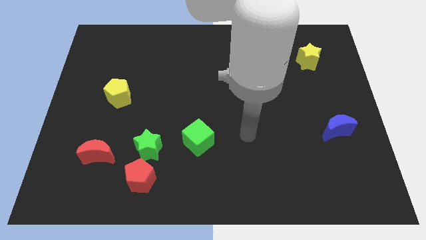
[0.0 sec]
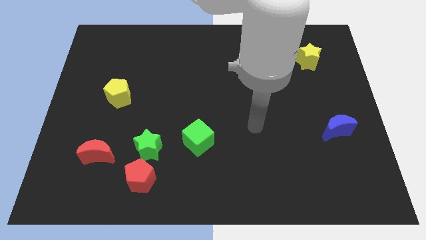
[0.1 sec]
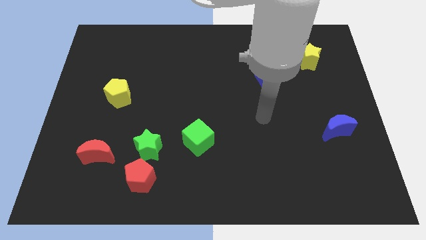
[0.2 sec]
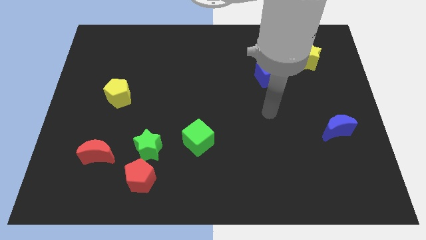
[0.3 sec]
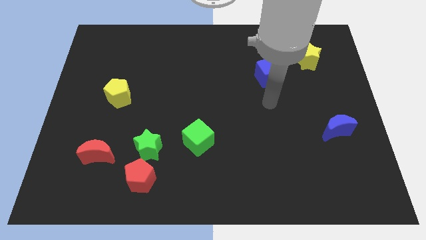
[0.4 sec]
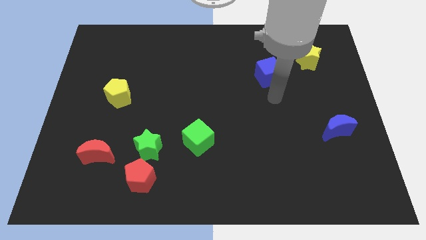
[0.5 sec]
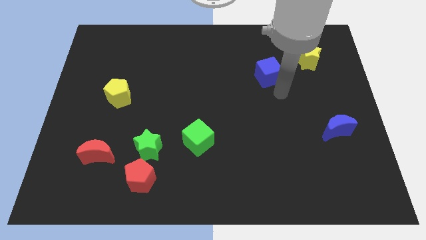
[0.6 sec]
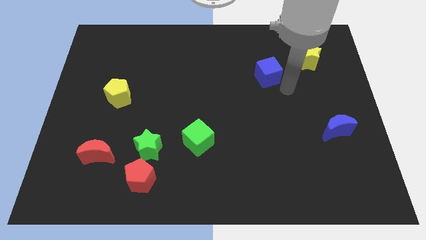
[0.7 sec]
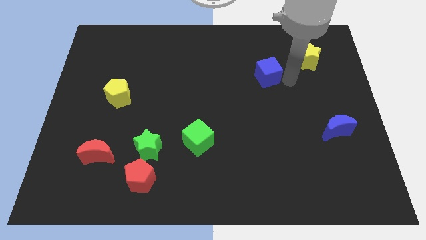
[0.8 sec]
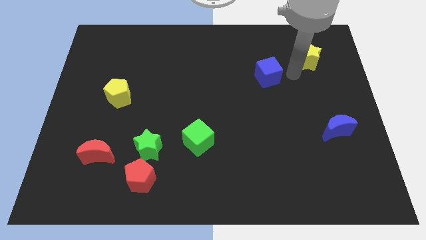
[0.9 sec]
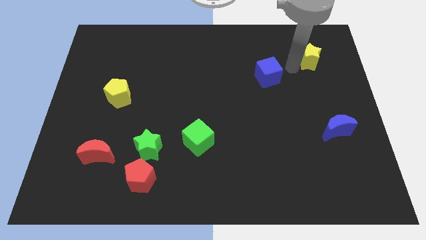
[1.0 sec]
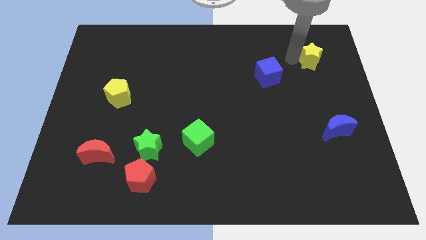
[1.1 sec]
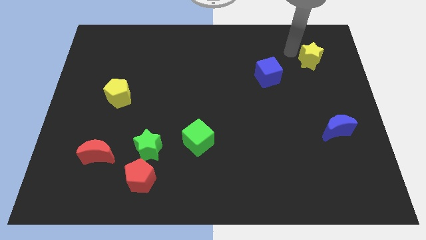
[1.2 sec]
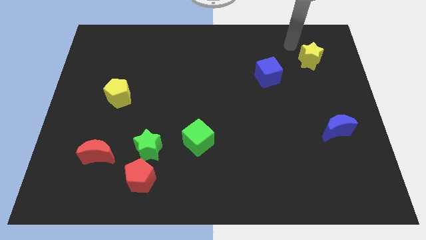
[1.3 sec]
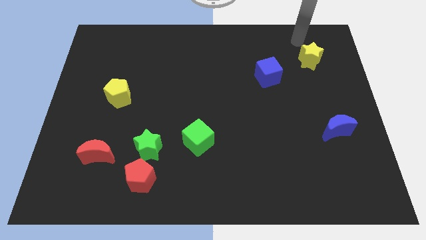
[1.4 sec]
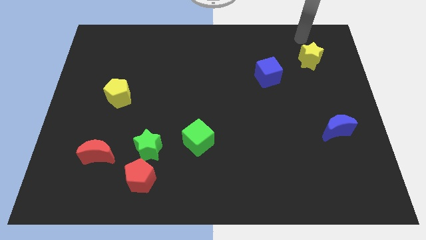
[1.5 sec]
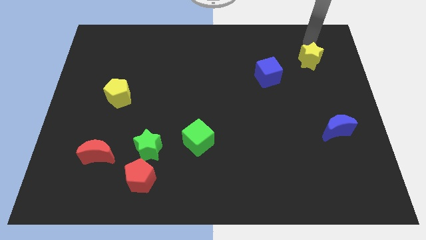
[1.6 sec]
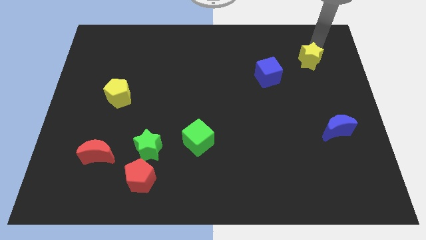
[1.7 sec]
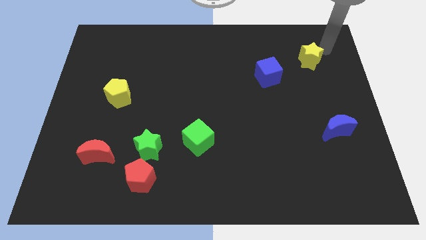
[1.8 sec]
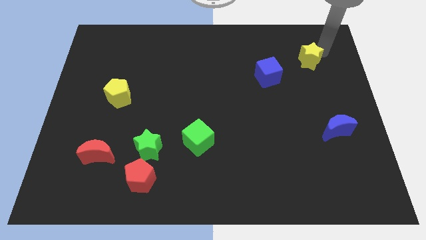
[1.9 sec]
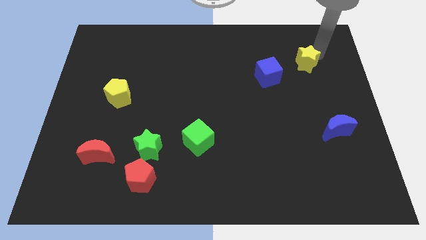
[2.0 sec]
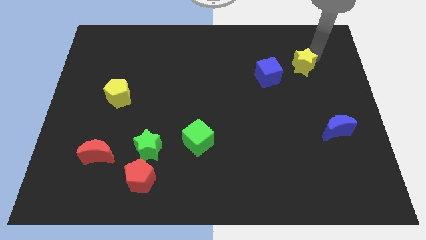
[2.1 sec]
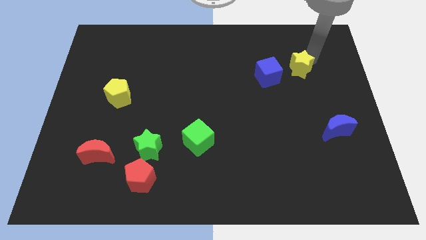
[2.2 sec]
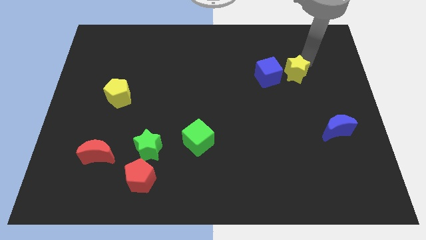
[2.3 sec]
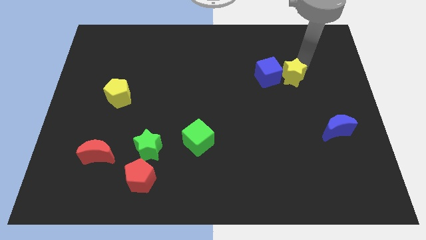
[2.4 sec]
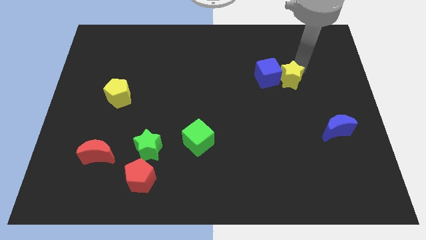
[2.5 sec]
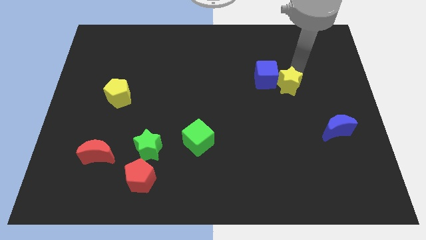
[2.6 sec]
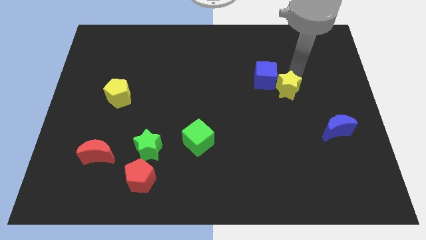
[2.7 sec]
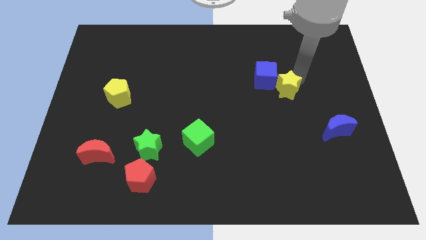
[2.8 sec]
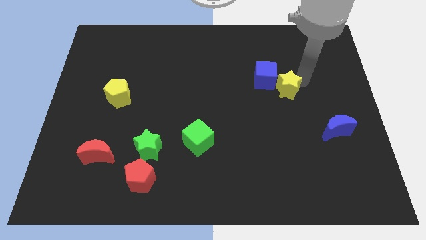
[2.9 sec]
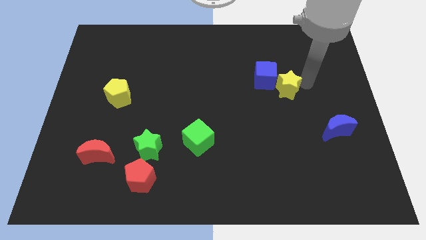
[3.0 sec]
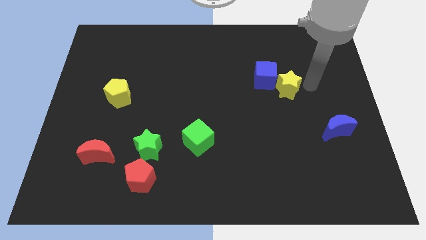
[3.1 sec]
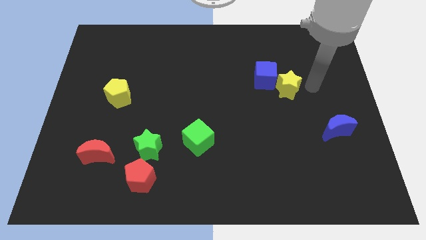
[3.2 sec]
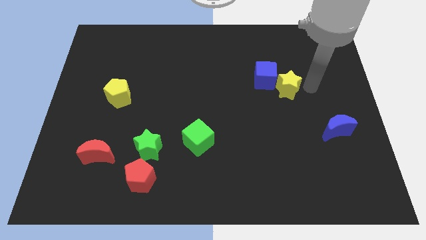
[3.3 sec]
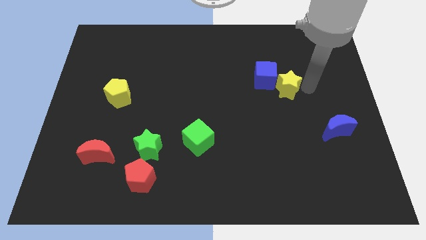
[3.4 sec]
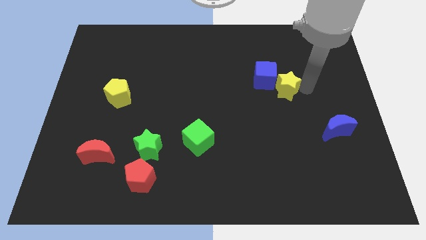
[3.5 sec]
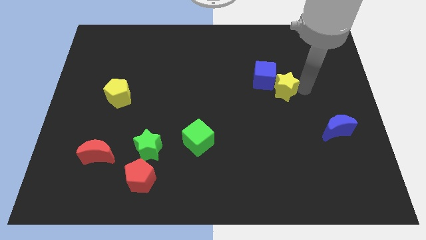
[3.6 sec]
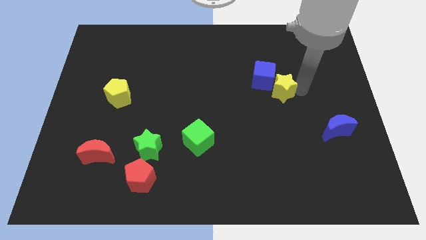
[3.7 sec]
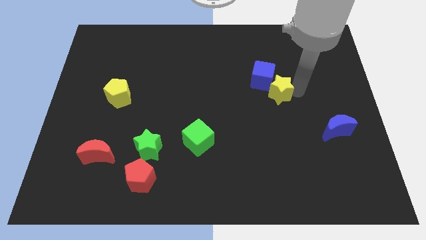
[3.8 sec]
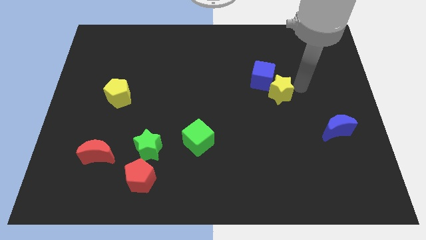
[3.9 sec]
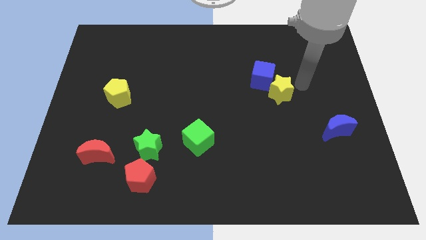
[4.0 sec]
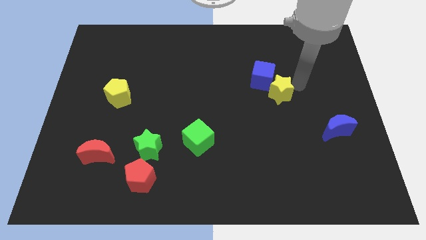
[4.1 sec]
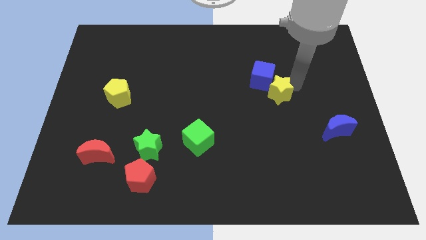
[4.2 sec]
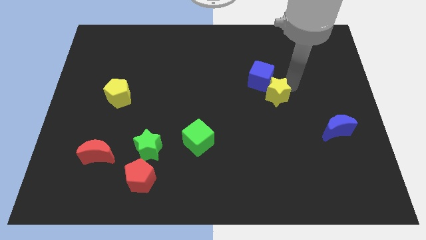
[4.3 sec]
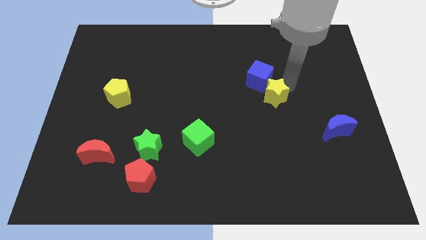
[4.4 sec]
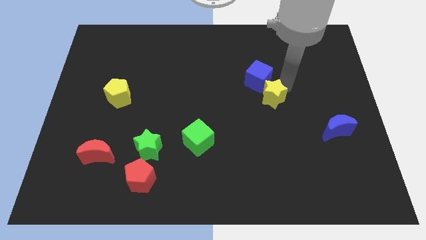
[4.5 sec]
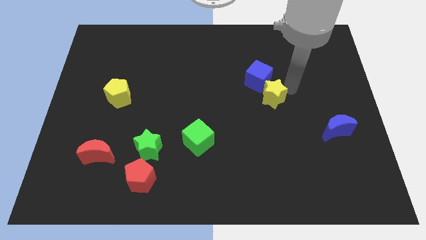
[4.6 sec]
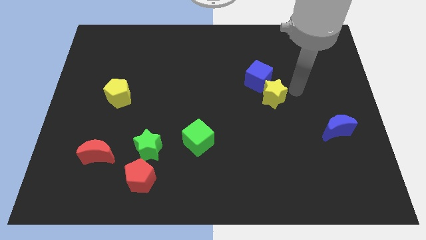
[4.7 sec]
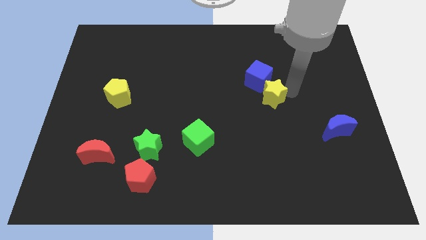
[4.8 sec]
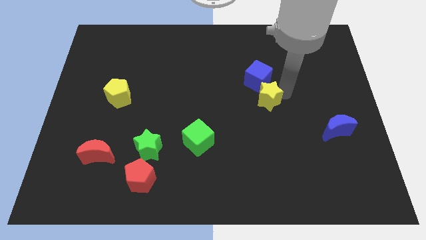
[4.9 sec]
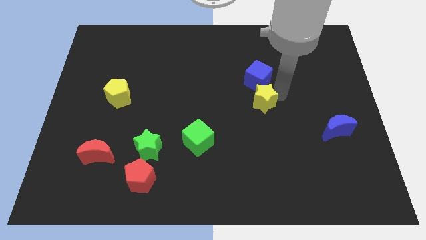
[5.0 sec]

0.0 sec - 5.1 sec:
move the yellow star to the center

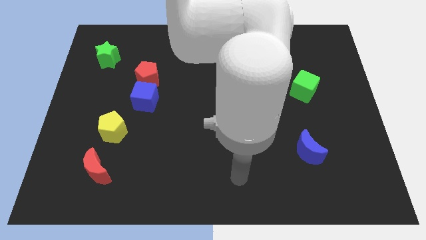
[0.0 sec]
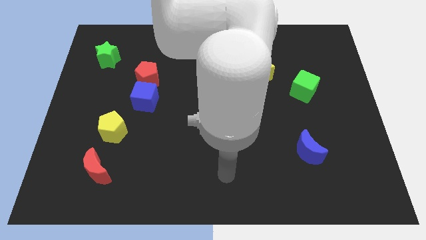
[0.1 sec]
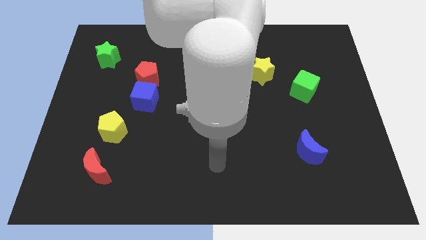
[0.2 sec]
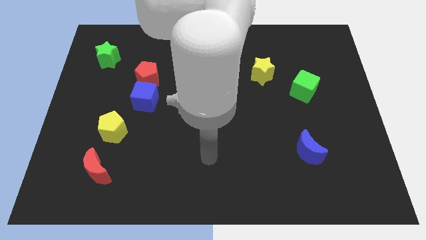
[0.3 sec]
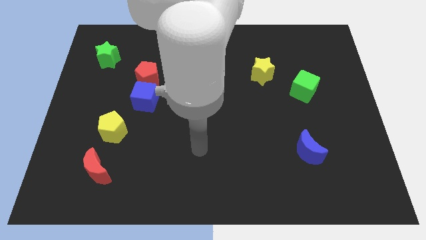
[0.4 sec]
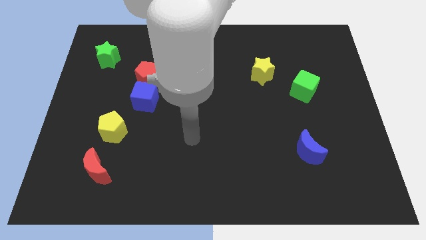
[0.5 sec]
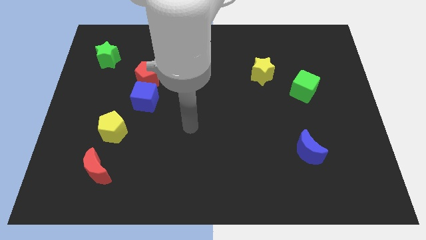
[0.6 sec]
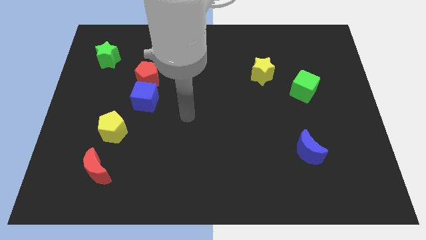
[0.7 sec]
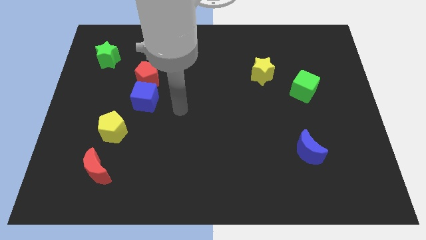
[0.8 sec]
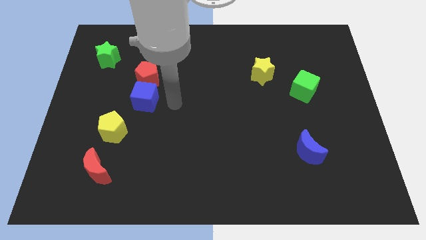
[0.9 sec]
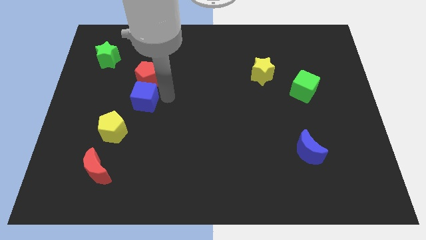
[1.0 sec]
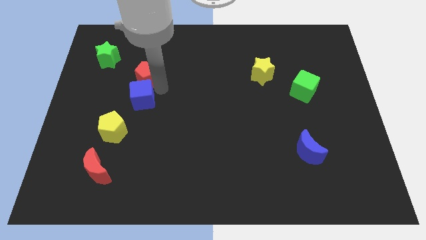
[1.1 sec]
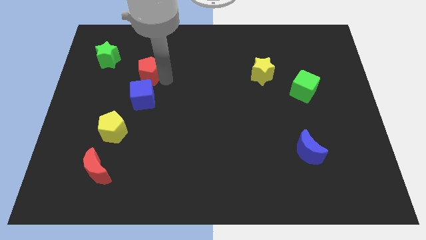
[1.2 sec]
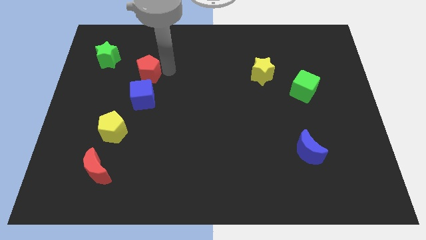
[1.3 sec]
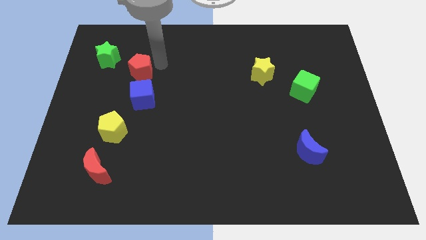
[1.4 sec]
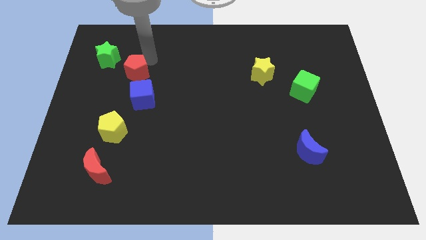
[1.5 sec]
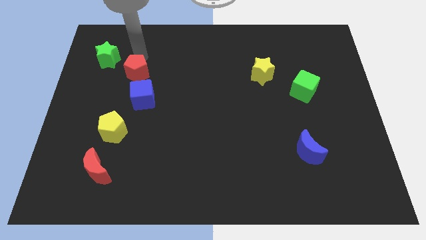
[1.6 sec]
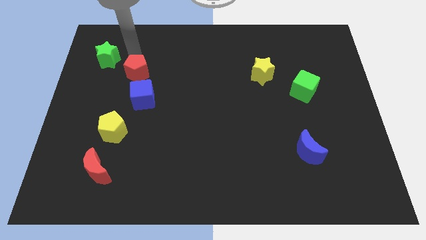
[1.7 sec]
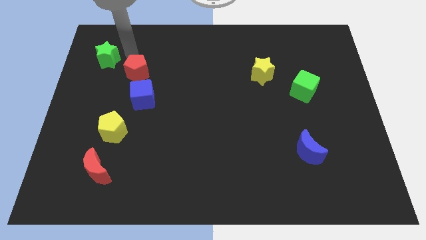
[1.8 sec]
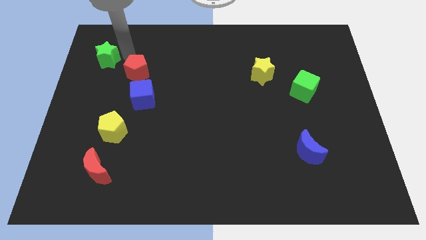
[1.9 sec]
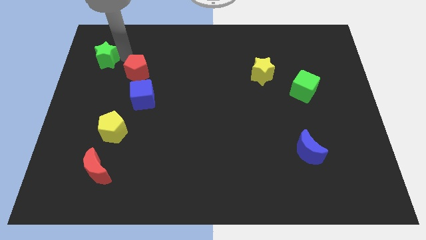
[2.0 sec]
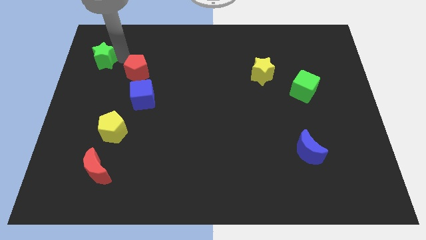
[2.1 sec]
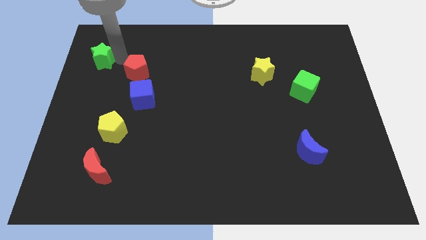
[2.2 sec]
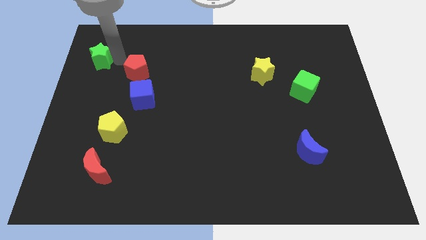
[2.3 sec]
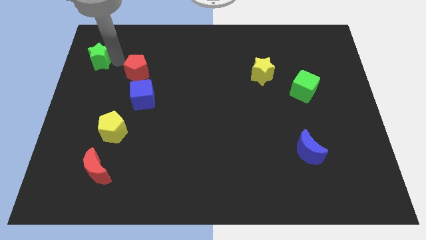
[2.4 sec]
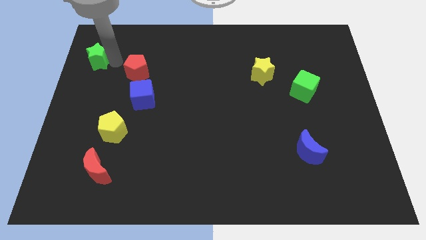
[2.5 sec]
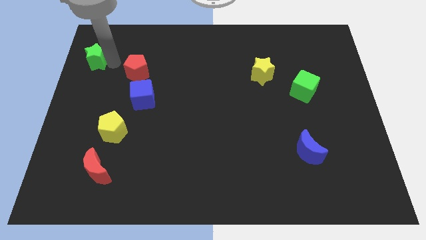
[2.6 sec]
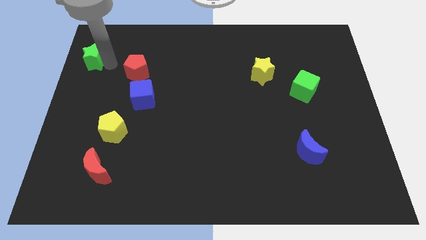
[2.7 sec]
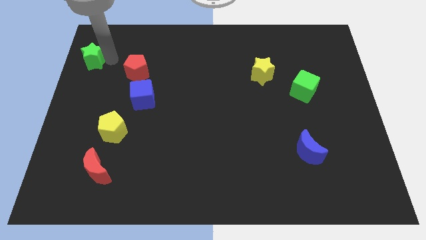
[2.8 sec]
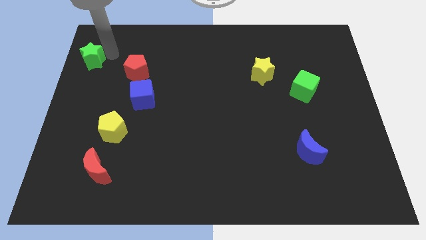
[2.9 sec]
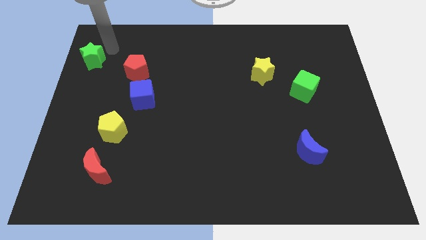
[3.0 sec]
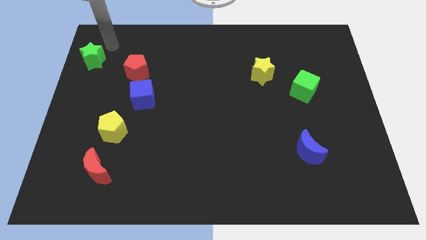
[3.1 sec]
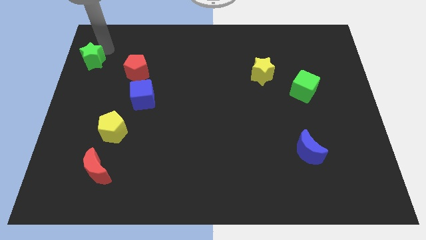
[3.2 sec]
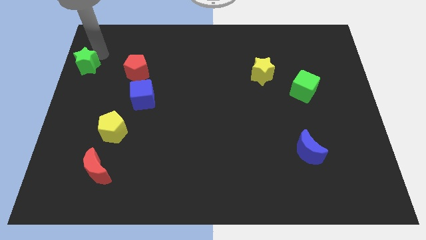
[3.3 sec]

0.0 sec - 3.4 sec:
slide the green star to the left side of the board
